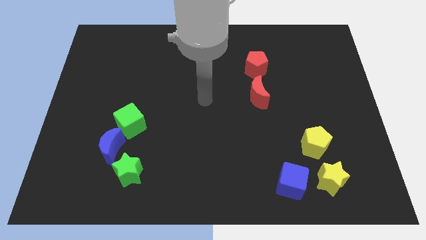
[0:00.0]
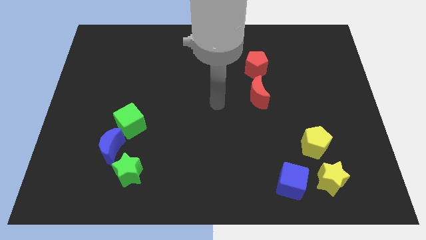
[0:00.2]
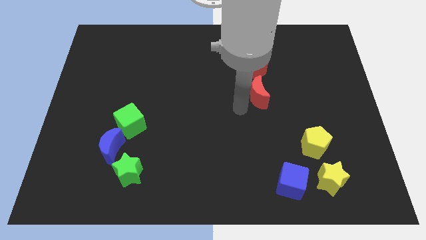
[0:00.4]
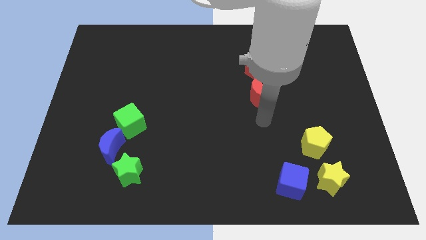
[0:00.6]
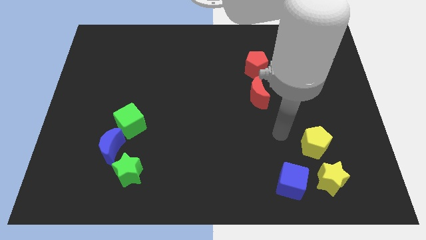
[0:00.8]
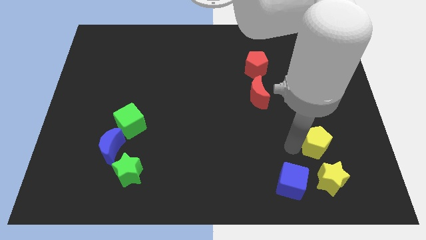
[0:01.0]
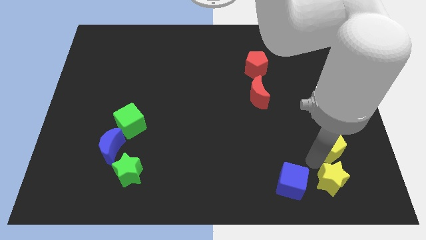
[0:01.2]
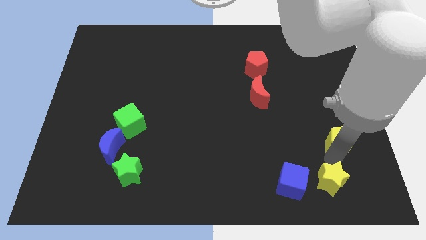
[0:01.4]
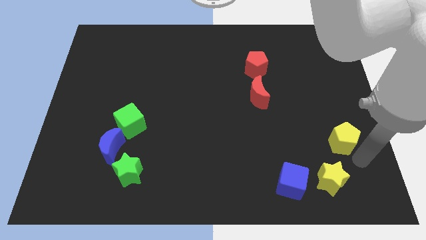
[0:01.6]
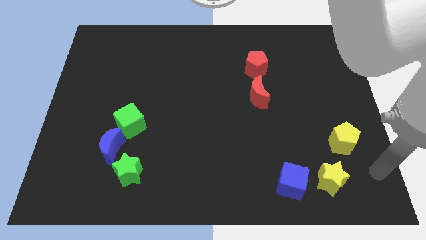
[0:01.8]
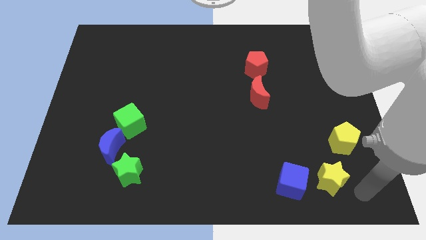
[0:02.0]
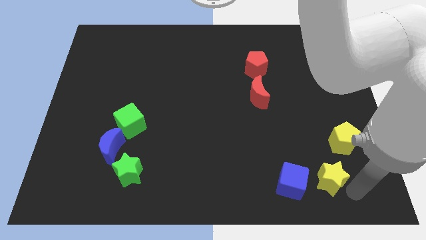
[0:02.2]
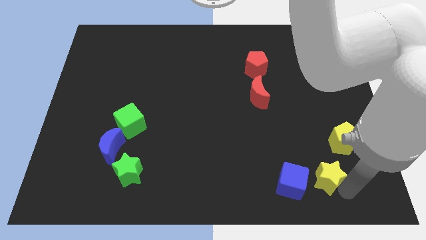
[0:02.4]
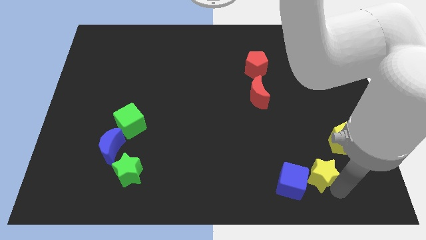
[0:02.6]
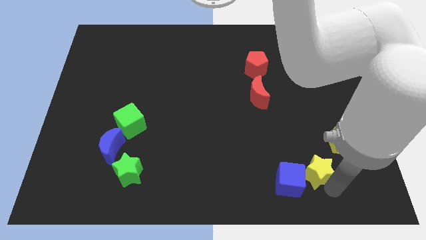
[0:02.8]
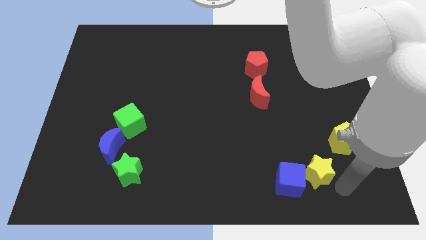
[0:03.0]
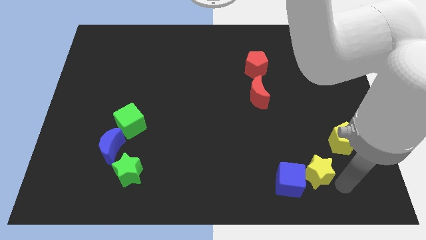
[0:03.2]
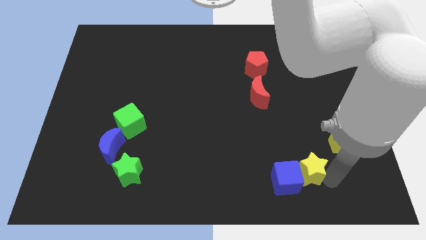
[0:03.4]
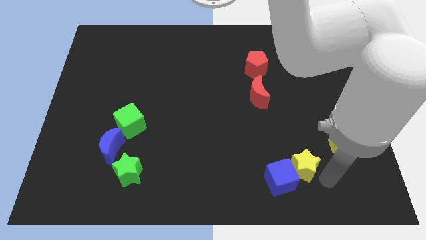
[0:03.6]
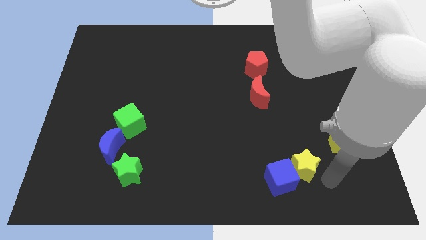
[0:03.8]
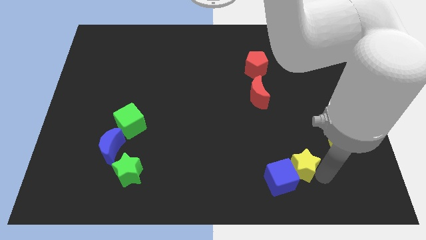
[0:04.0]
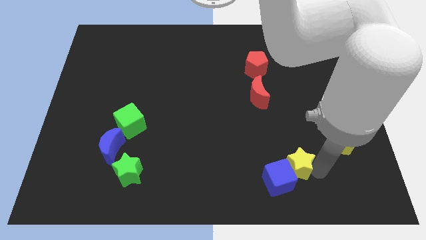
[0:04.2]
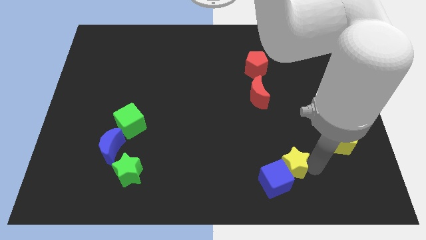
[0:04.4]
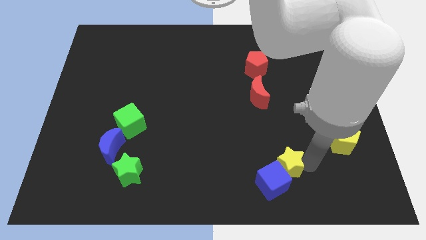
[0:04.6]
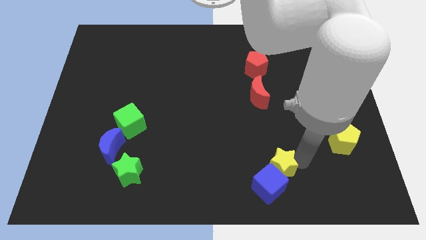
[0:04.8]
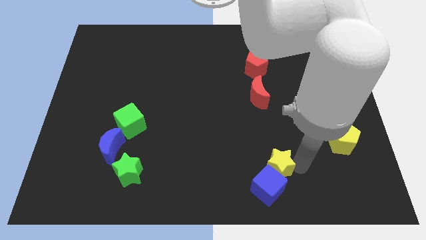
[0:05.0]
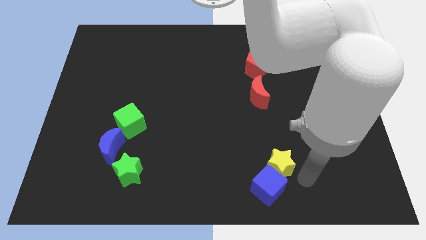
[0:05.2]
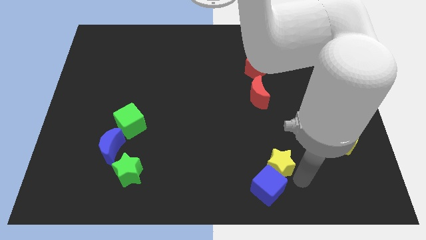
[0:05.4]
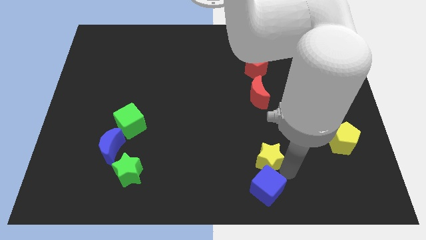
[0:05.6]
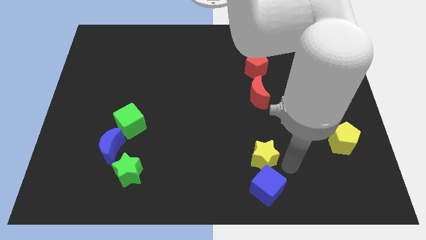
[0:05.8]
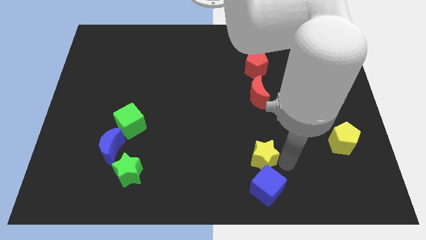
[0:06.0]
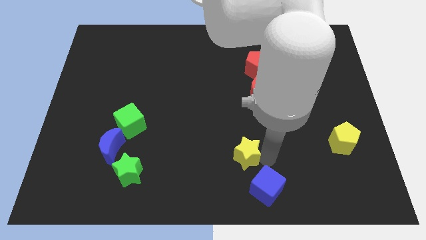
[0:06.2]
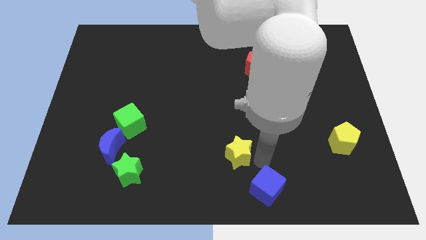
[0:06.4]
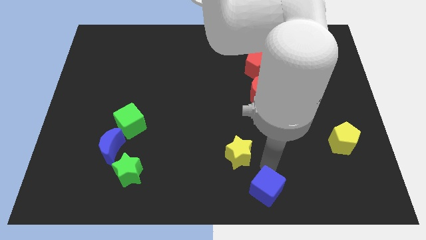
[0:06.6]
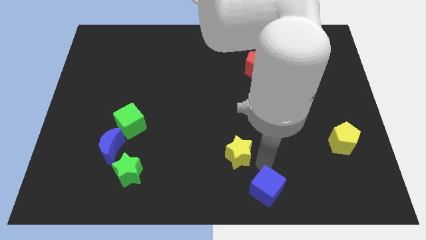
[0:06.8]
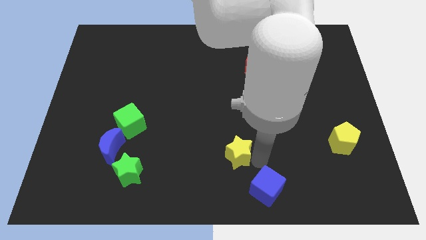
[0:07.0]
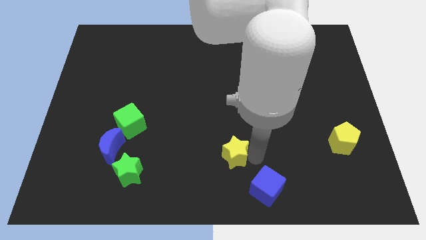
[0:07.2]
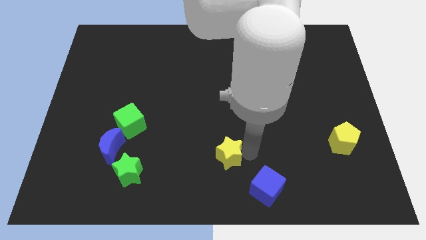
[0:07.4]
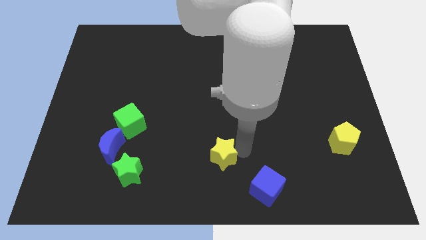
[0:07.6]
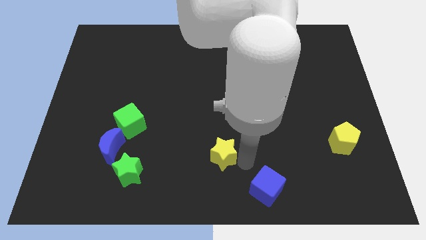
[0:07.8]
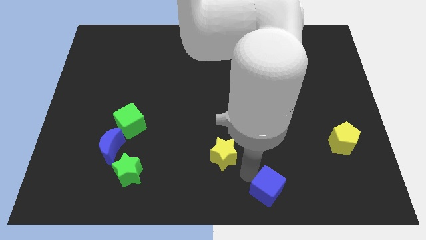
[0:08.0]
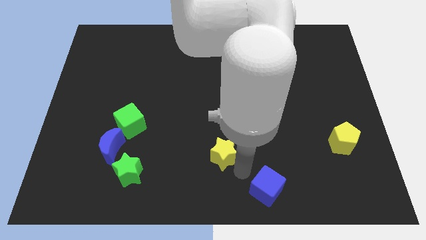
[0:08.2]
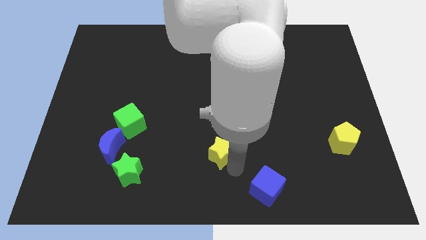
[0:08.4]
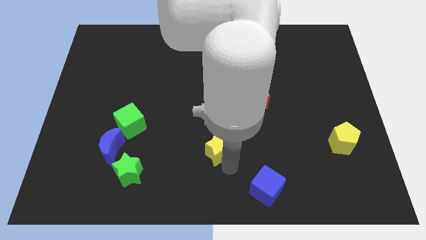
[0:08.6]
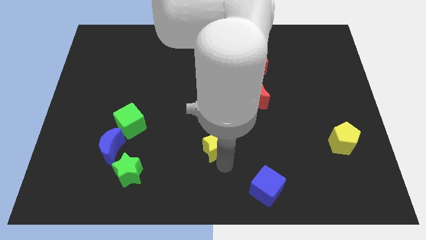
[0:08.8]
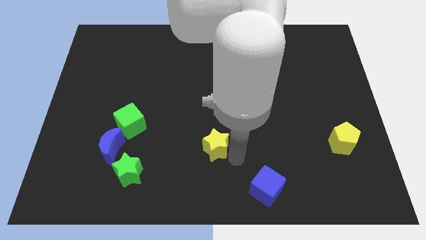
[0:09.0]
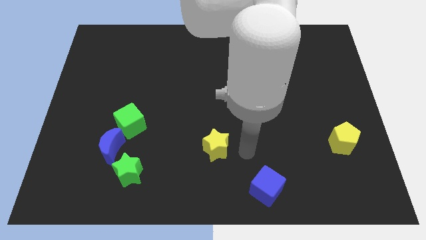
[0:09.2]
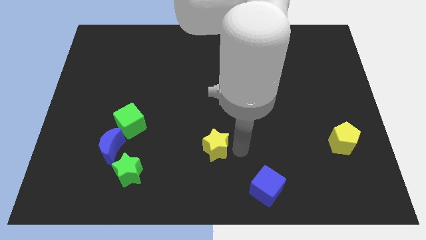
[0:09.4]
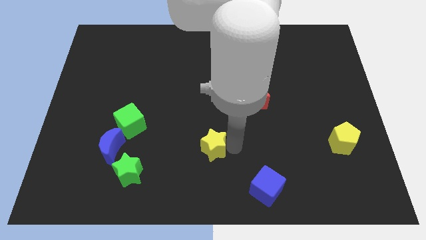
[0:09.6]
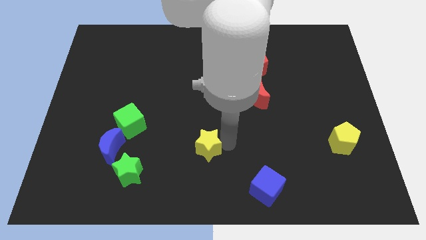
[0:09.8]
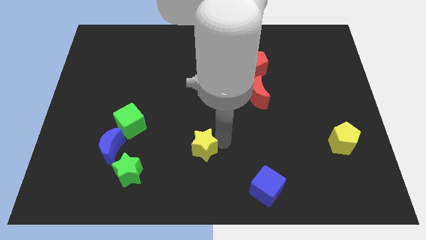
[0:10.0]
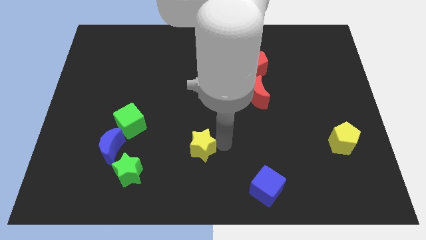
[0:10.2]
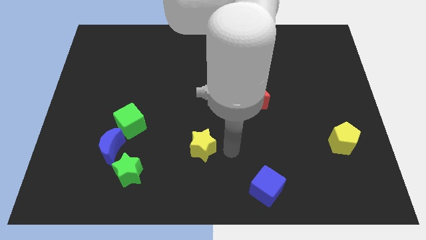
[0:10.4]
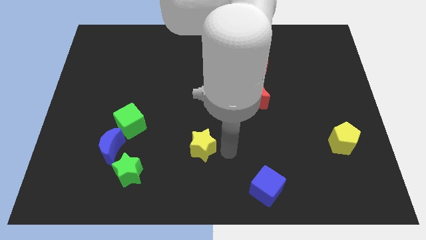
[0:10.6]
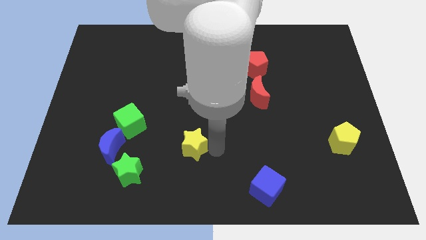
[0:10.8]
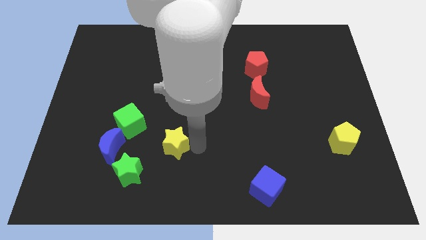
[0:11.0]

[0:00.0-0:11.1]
push the yellow star to the bottom right of the green cube

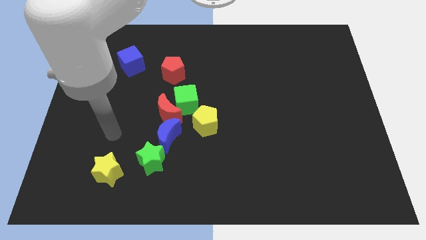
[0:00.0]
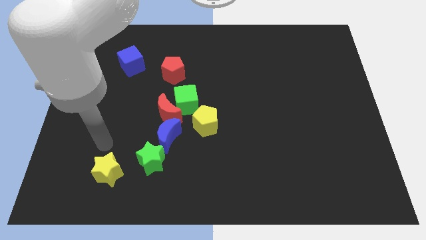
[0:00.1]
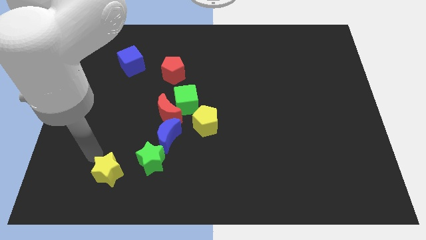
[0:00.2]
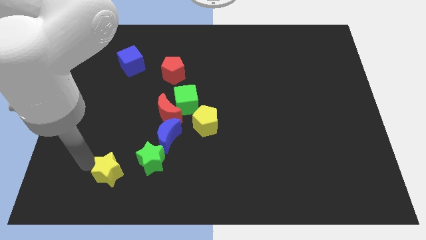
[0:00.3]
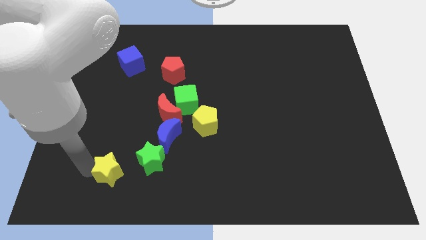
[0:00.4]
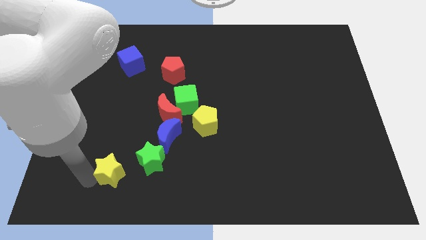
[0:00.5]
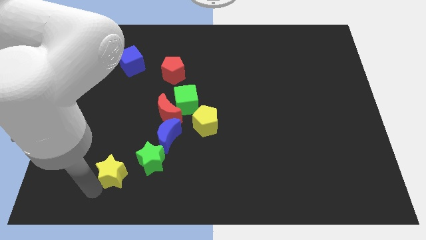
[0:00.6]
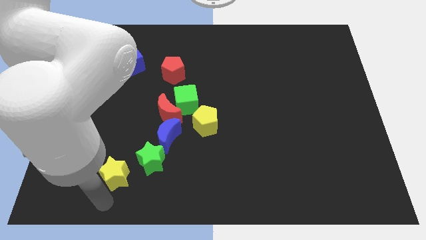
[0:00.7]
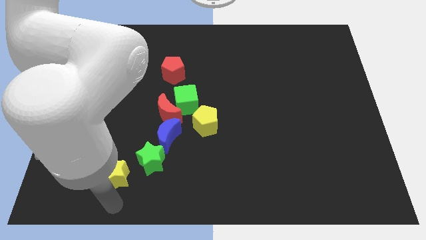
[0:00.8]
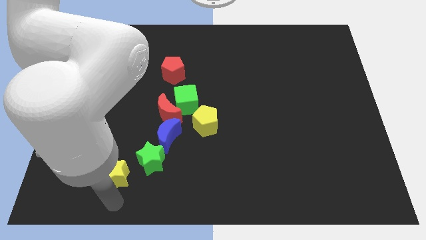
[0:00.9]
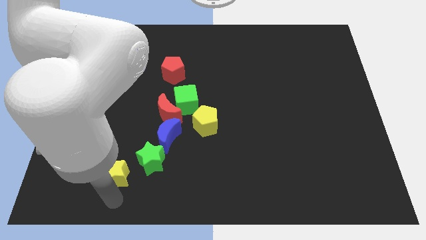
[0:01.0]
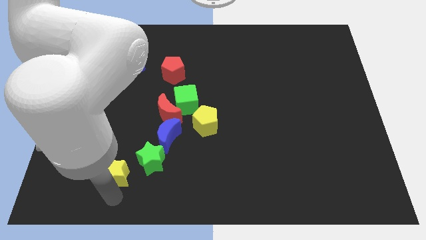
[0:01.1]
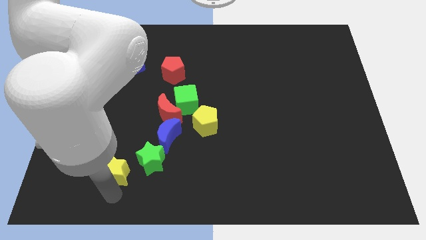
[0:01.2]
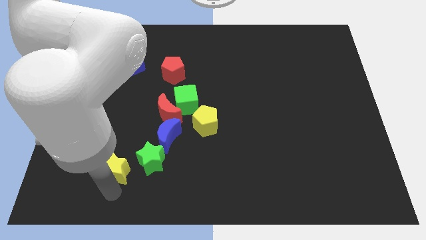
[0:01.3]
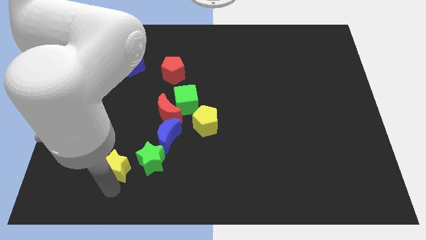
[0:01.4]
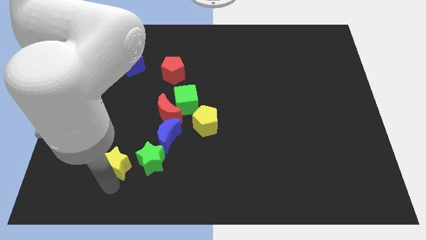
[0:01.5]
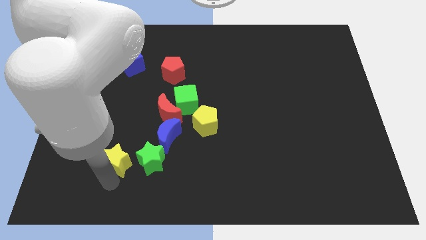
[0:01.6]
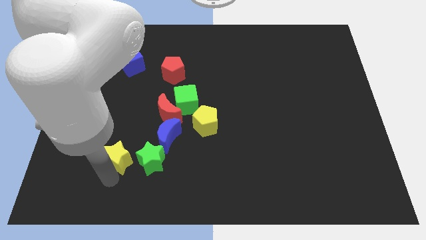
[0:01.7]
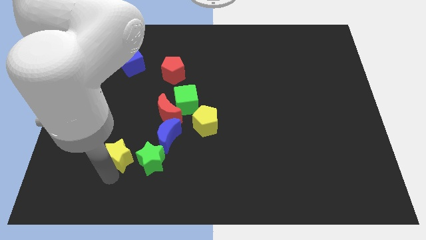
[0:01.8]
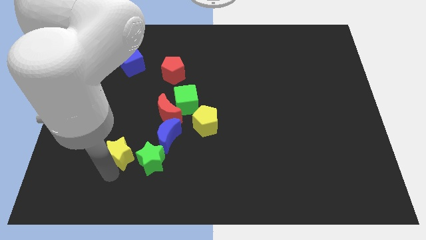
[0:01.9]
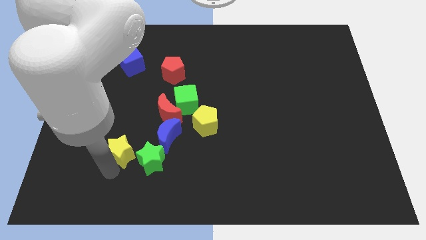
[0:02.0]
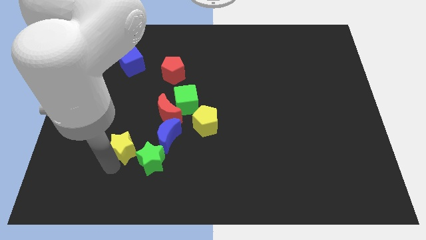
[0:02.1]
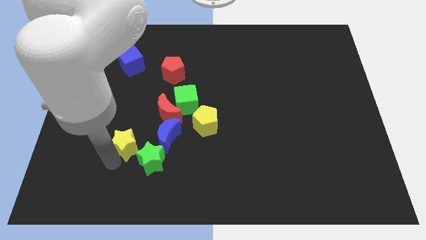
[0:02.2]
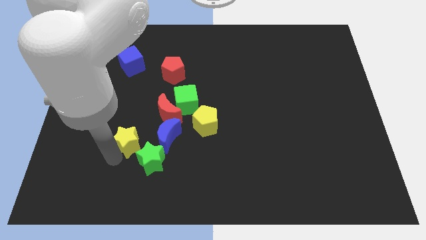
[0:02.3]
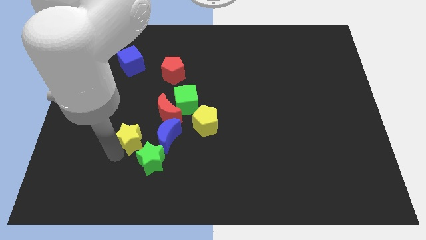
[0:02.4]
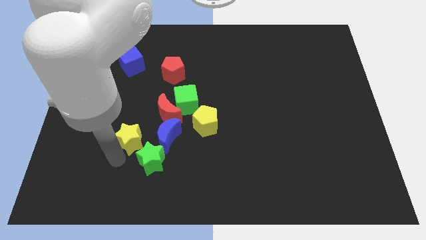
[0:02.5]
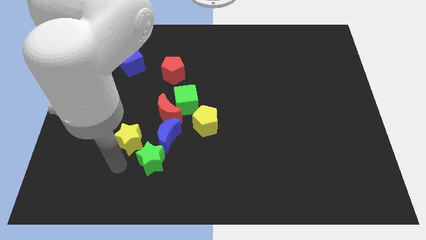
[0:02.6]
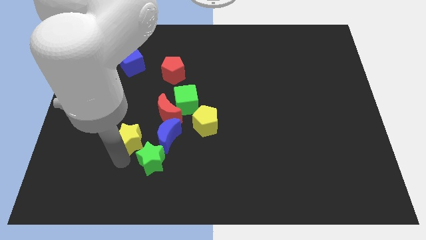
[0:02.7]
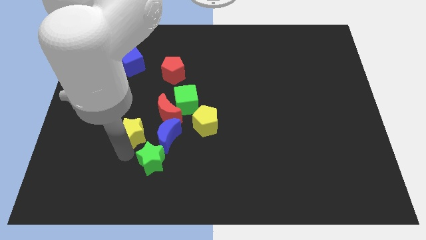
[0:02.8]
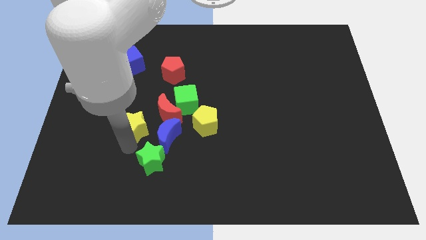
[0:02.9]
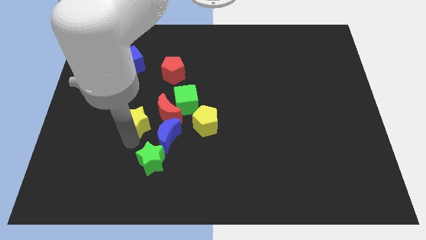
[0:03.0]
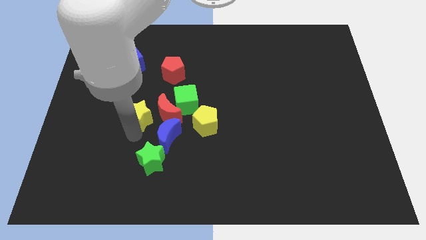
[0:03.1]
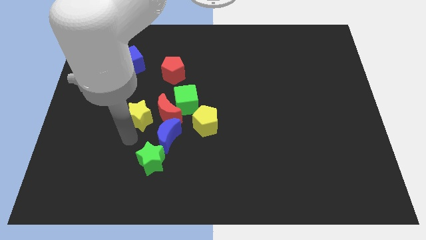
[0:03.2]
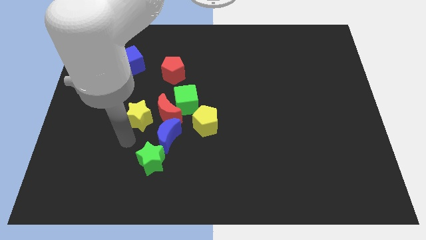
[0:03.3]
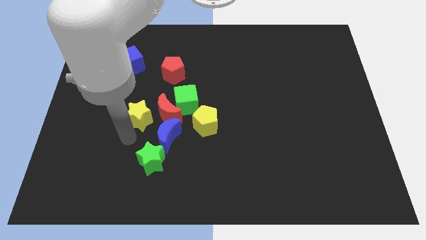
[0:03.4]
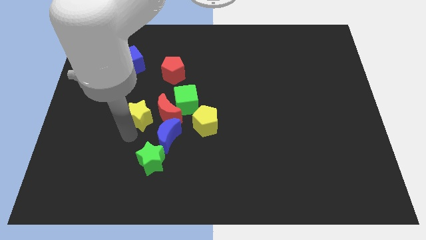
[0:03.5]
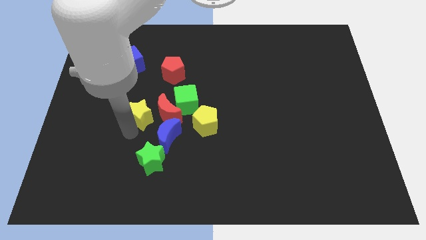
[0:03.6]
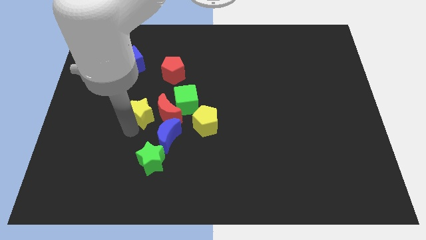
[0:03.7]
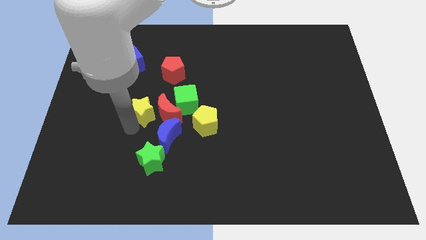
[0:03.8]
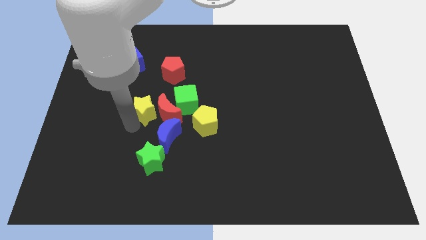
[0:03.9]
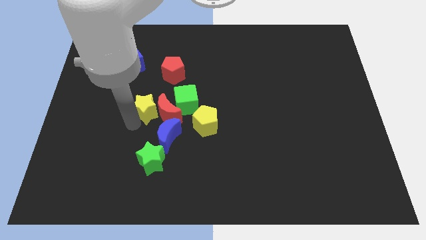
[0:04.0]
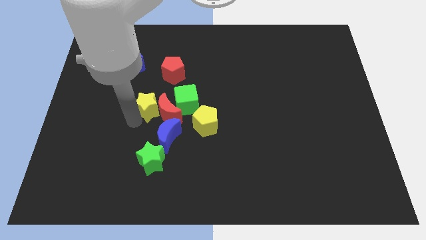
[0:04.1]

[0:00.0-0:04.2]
push the yellow star to the top side of the blue moon
